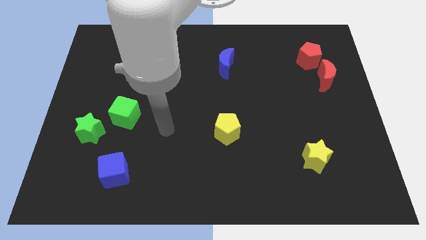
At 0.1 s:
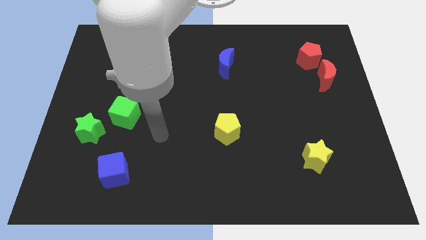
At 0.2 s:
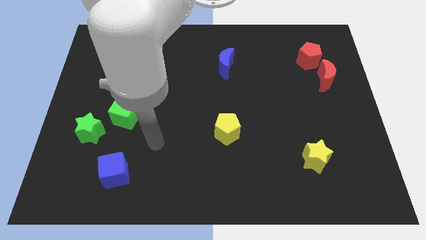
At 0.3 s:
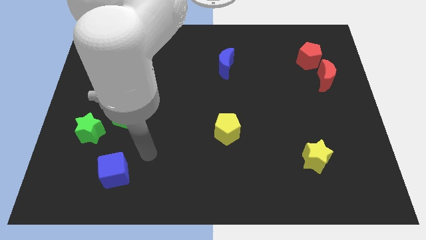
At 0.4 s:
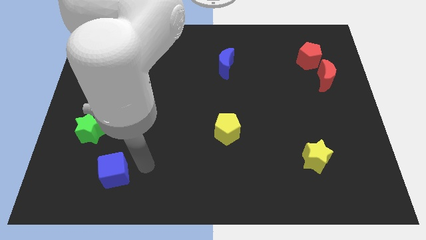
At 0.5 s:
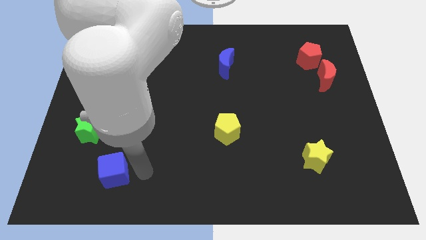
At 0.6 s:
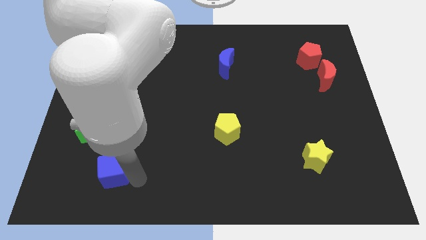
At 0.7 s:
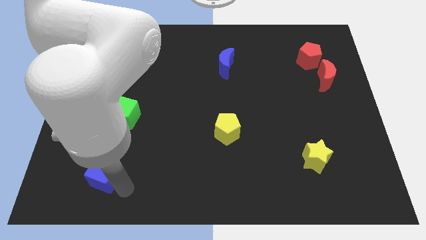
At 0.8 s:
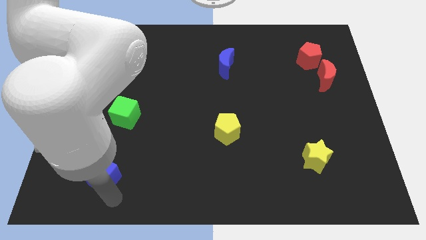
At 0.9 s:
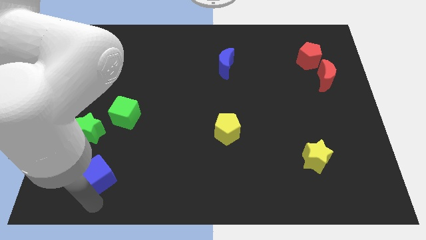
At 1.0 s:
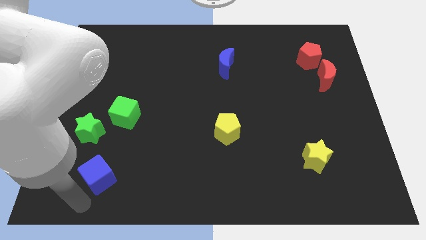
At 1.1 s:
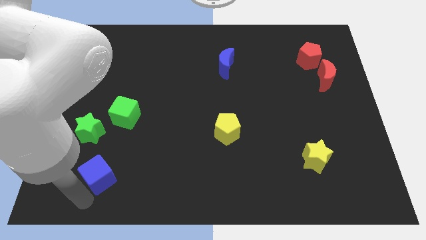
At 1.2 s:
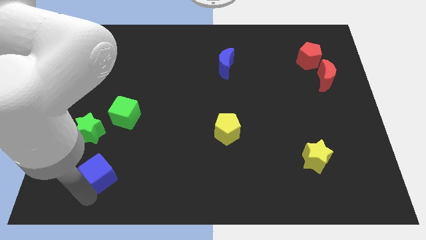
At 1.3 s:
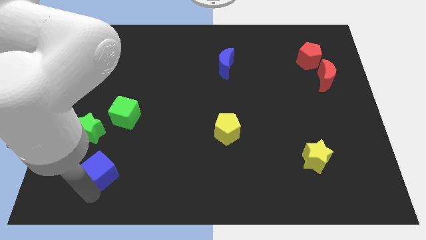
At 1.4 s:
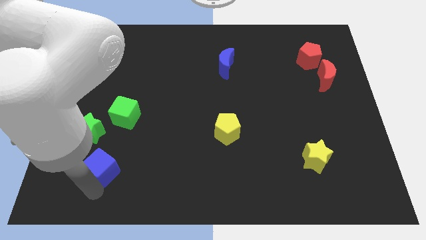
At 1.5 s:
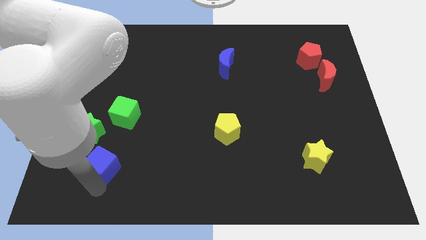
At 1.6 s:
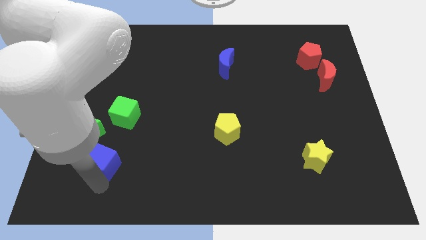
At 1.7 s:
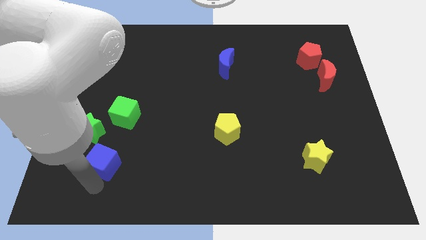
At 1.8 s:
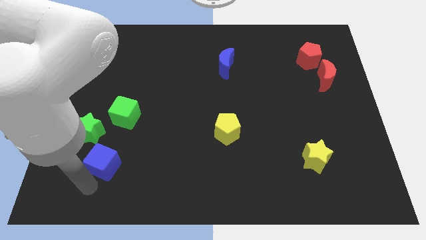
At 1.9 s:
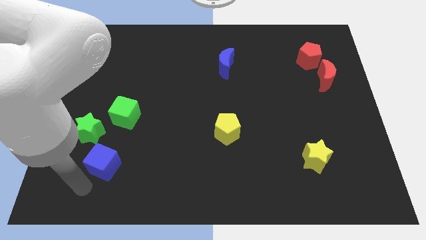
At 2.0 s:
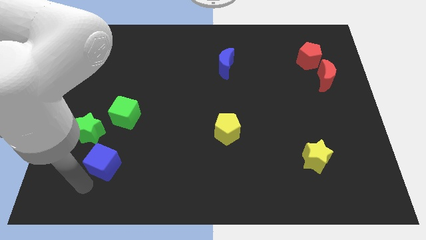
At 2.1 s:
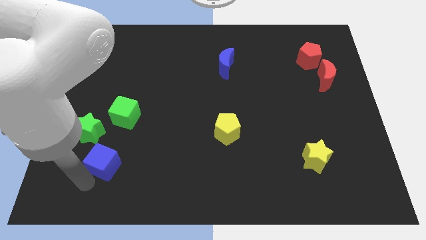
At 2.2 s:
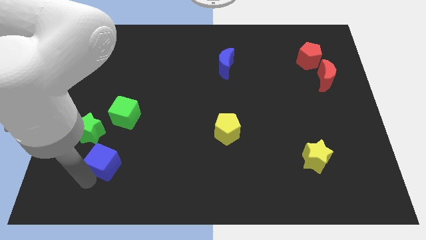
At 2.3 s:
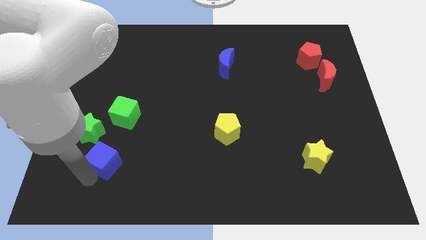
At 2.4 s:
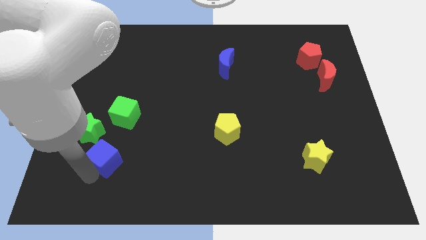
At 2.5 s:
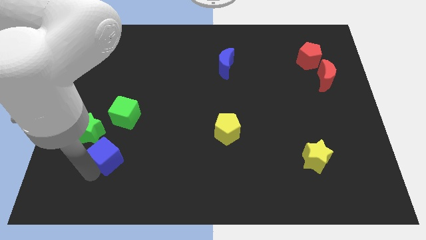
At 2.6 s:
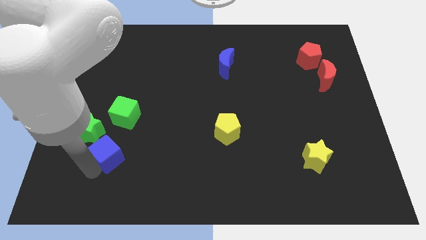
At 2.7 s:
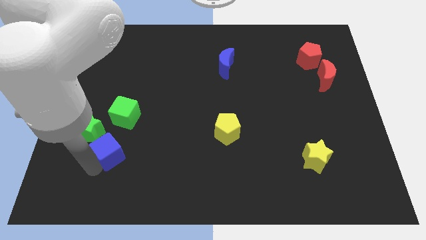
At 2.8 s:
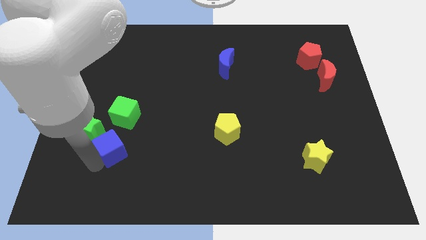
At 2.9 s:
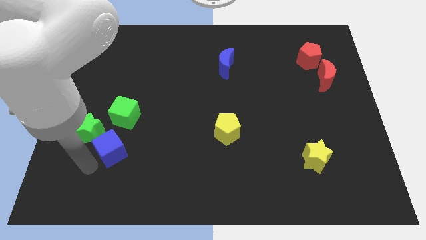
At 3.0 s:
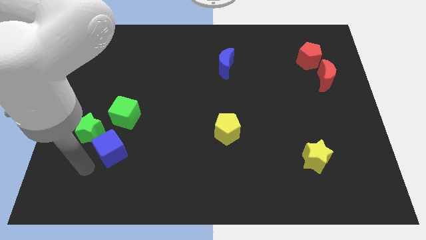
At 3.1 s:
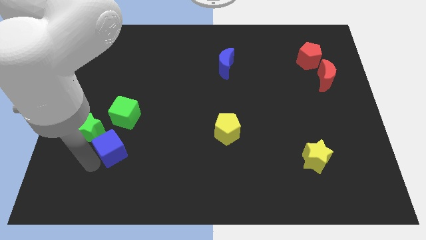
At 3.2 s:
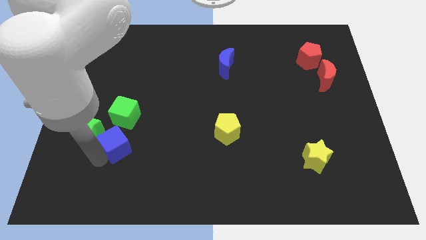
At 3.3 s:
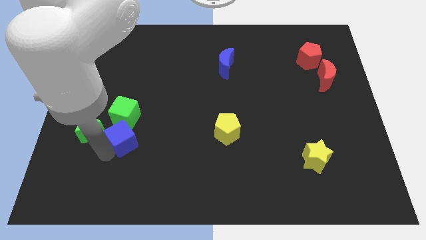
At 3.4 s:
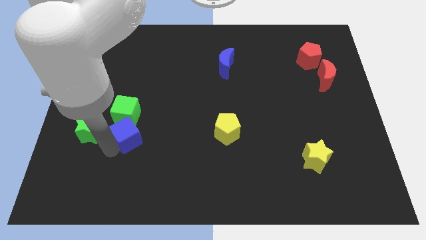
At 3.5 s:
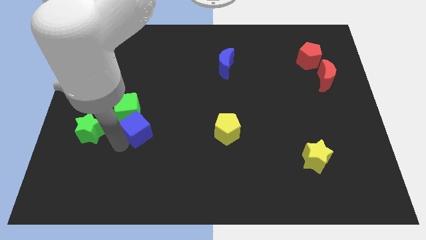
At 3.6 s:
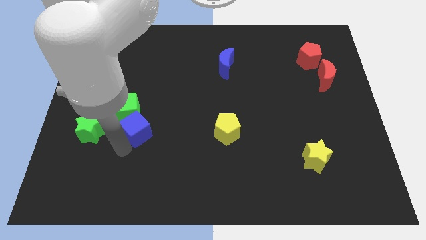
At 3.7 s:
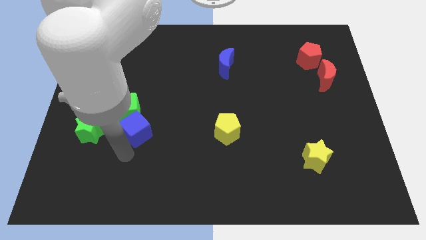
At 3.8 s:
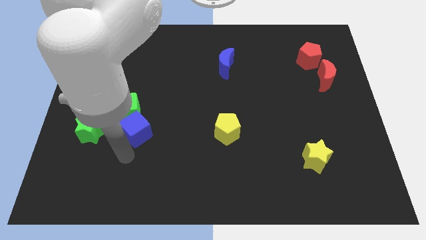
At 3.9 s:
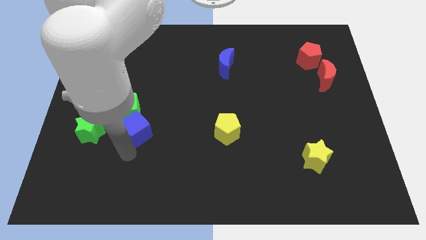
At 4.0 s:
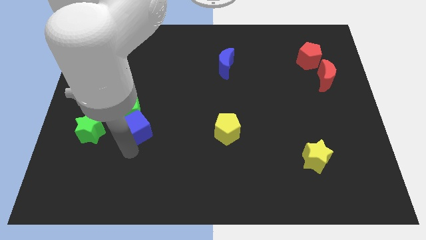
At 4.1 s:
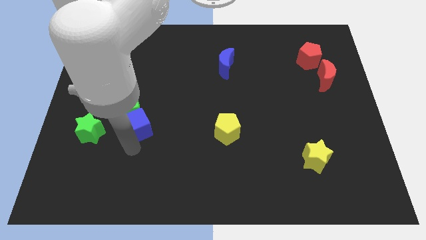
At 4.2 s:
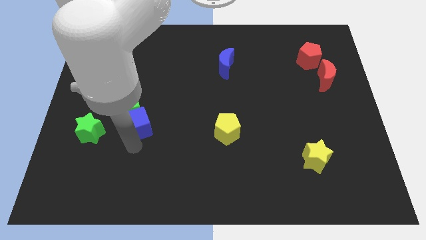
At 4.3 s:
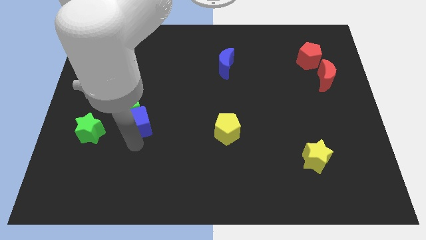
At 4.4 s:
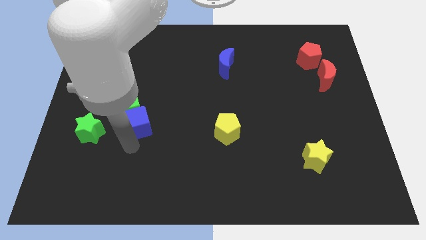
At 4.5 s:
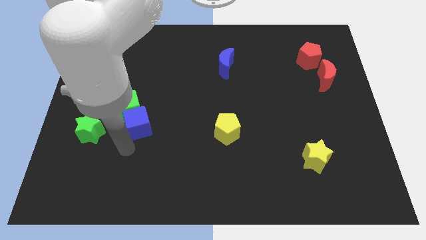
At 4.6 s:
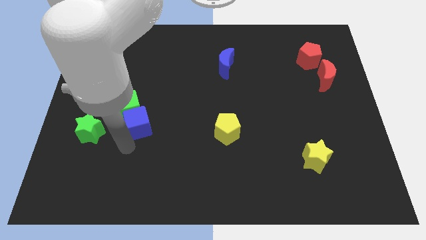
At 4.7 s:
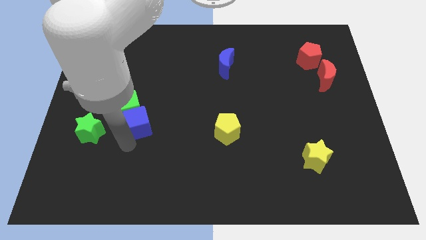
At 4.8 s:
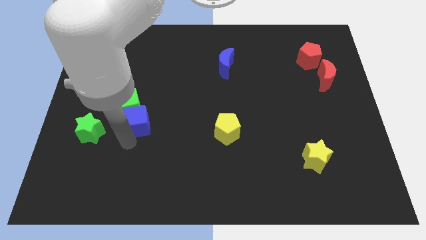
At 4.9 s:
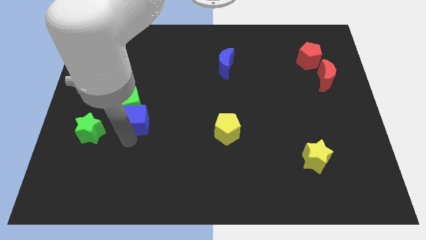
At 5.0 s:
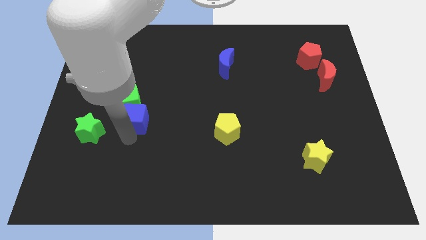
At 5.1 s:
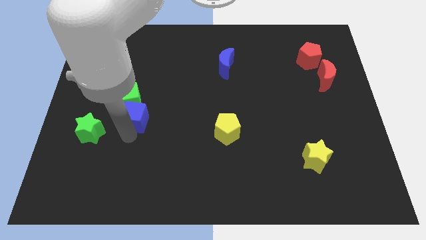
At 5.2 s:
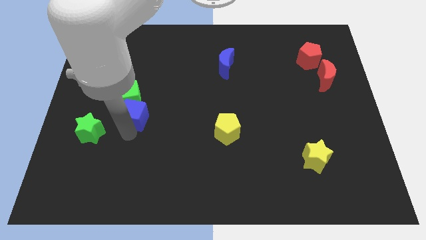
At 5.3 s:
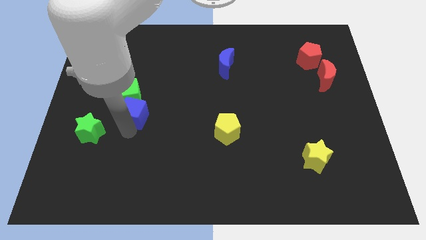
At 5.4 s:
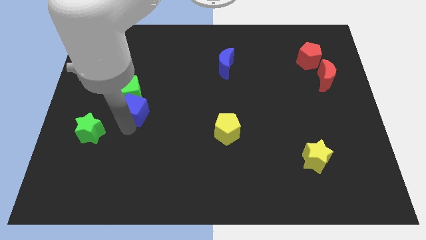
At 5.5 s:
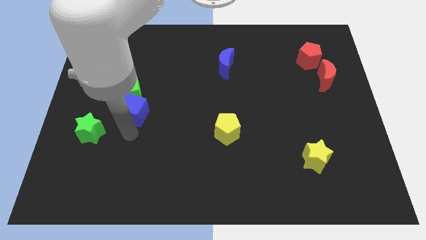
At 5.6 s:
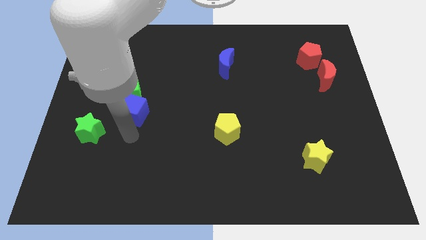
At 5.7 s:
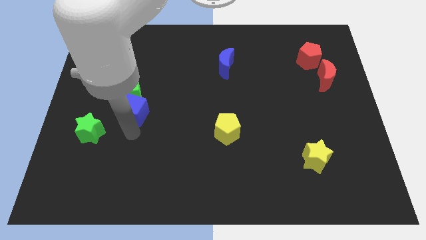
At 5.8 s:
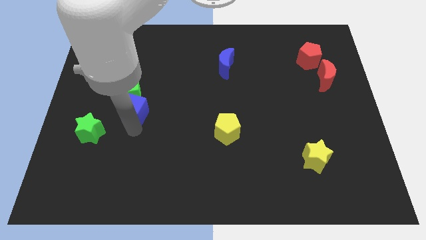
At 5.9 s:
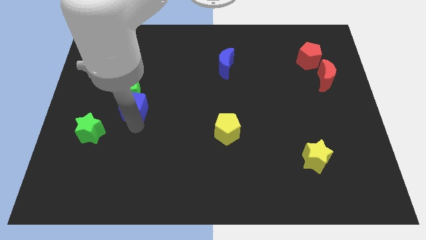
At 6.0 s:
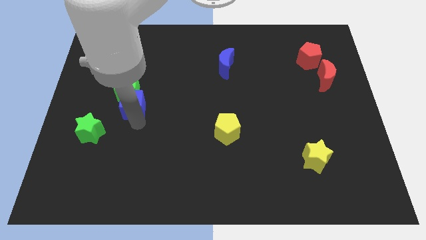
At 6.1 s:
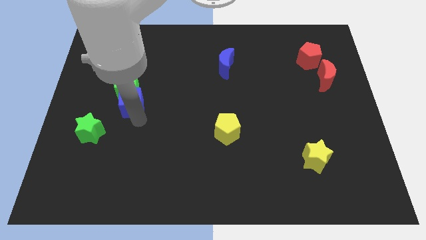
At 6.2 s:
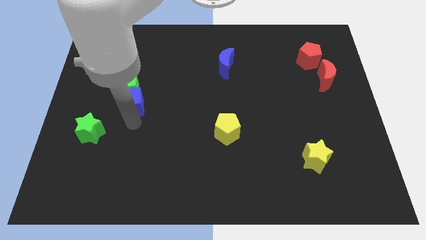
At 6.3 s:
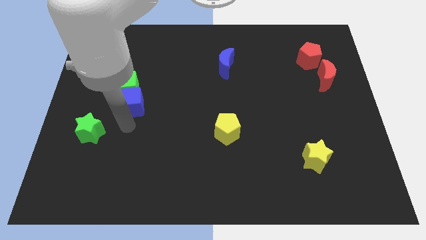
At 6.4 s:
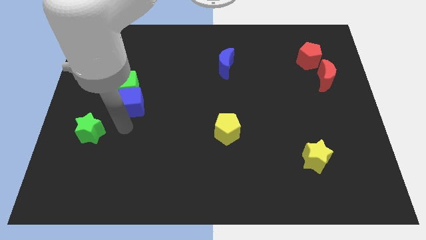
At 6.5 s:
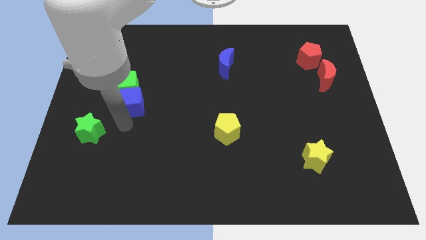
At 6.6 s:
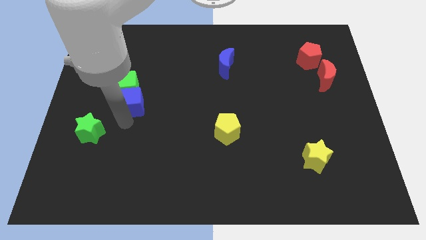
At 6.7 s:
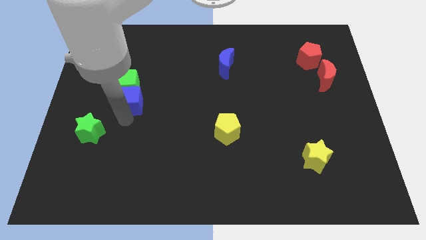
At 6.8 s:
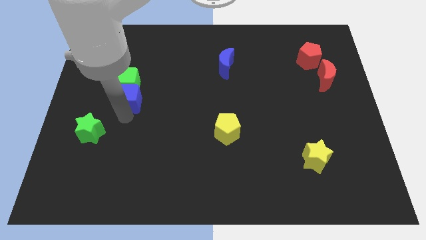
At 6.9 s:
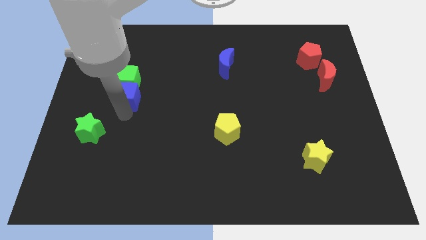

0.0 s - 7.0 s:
slide the blue cube upwards

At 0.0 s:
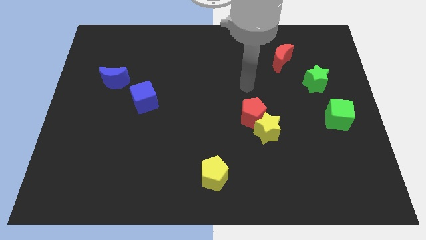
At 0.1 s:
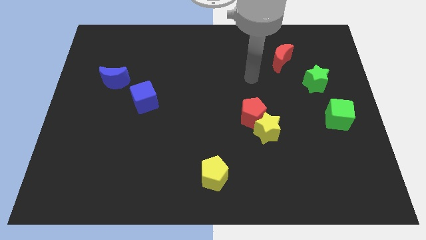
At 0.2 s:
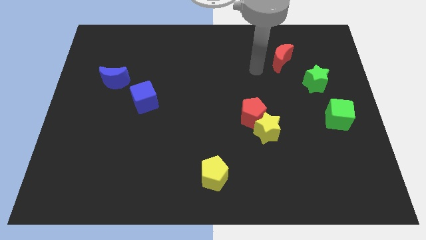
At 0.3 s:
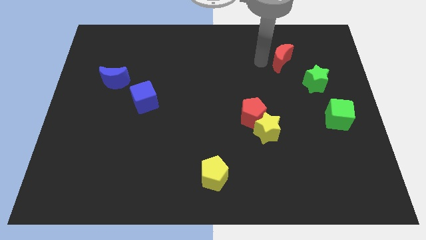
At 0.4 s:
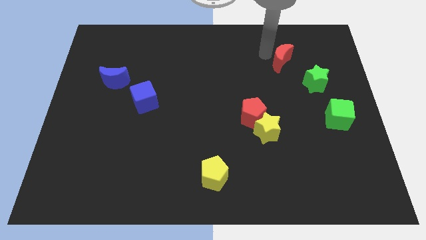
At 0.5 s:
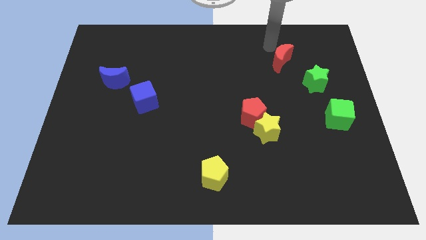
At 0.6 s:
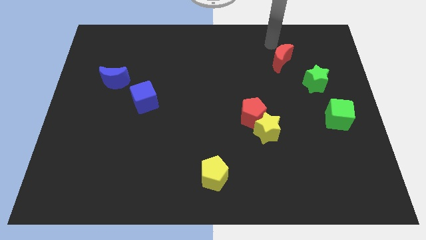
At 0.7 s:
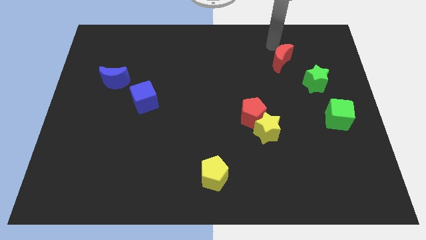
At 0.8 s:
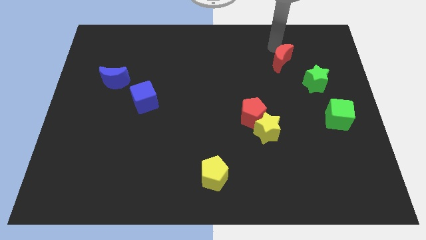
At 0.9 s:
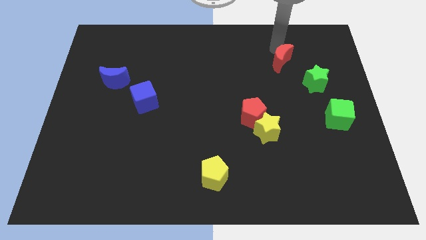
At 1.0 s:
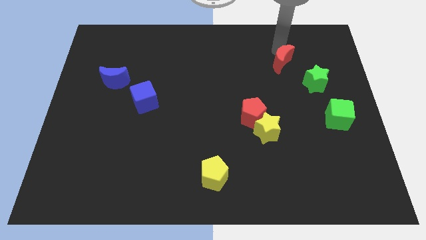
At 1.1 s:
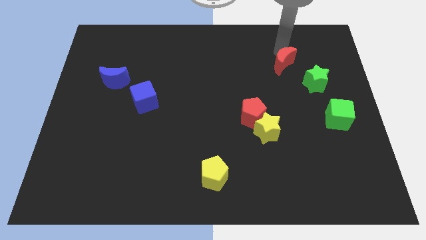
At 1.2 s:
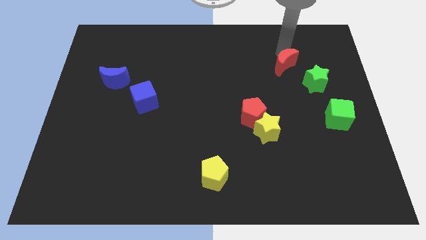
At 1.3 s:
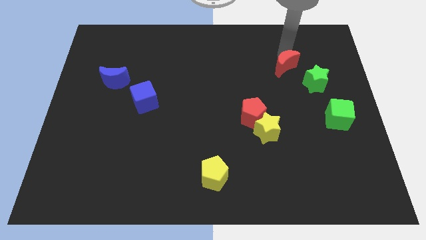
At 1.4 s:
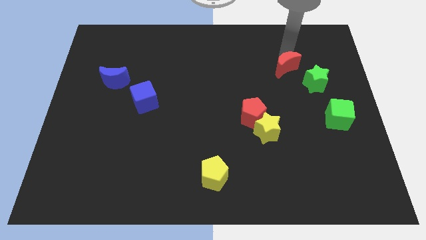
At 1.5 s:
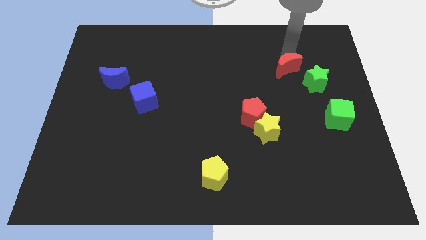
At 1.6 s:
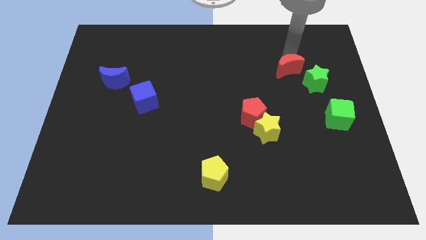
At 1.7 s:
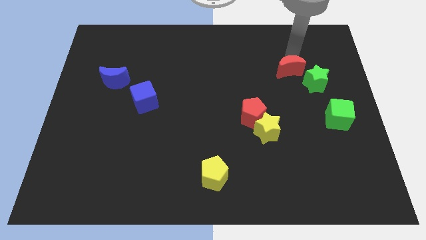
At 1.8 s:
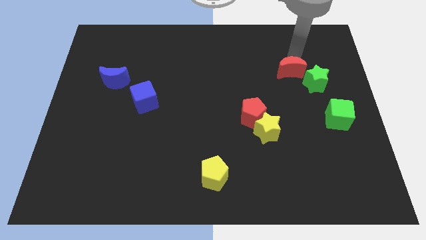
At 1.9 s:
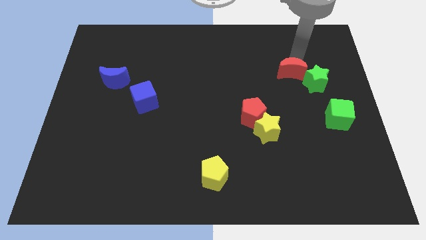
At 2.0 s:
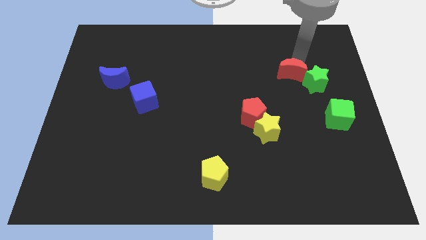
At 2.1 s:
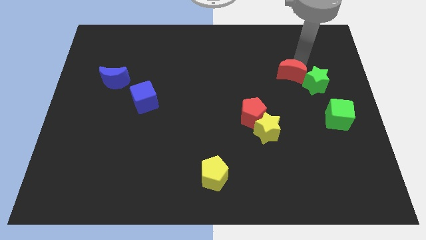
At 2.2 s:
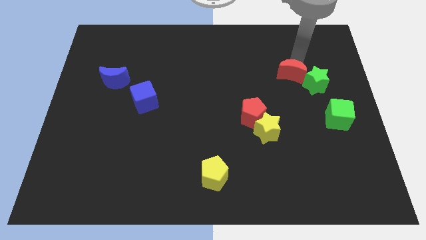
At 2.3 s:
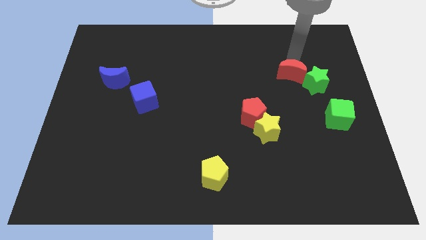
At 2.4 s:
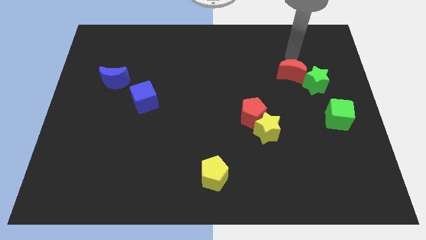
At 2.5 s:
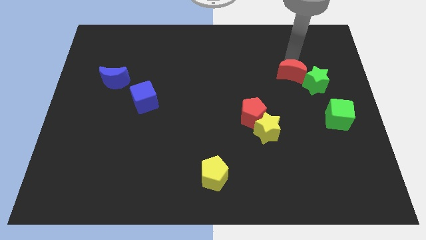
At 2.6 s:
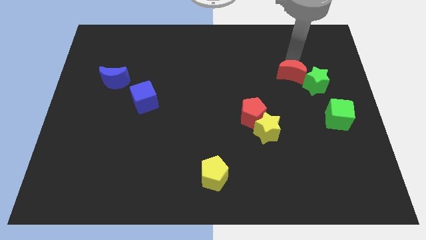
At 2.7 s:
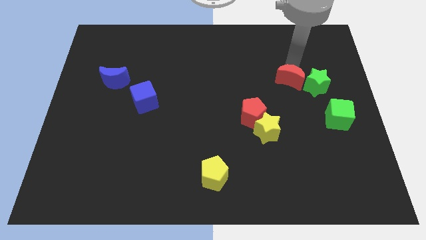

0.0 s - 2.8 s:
slide the red moon a little downwards
